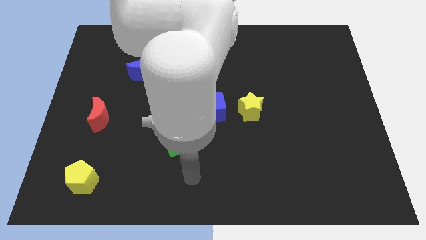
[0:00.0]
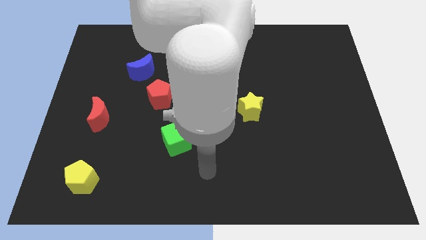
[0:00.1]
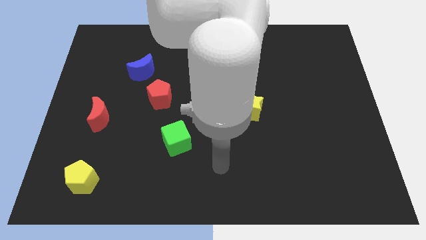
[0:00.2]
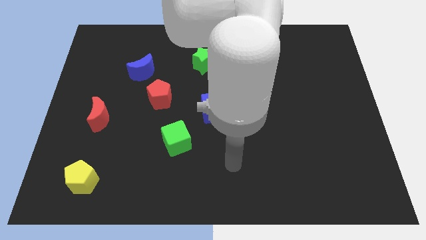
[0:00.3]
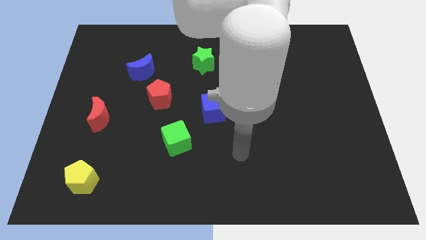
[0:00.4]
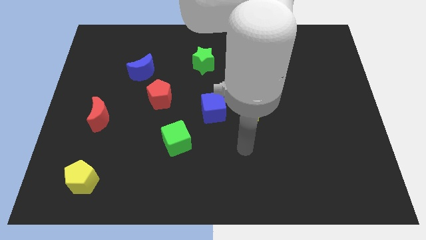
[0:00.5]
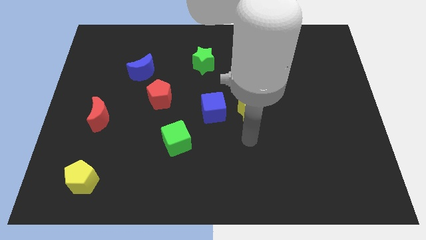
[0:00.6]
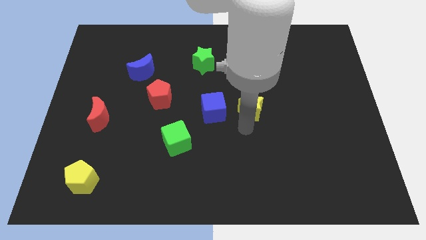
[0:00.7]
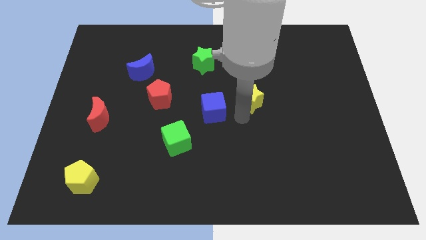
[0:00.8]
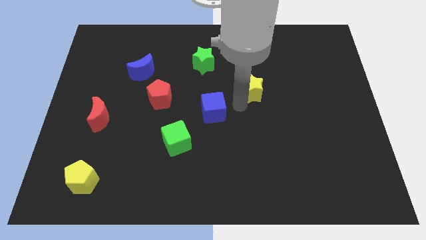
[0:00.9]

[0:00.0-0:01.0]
move the blue cube away from the yellow star

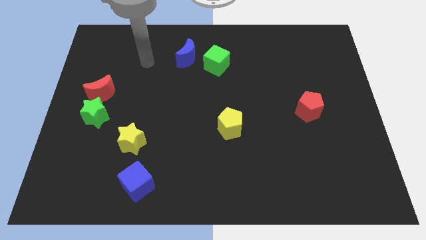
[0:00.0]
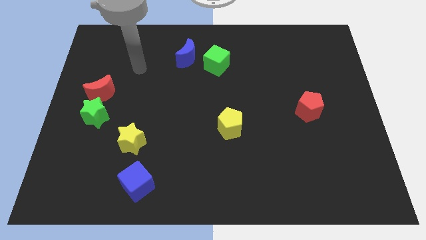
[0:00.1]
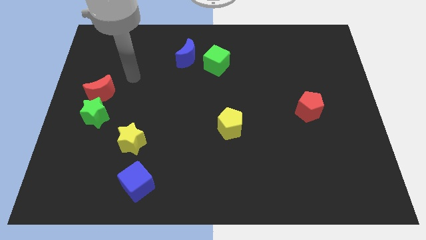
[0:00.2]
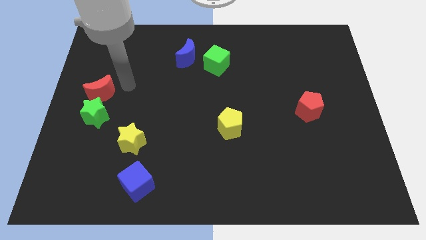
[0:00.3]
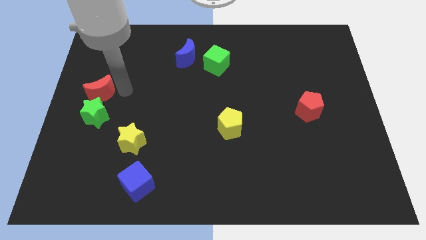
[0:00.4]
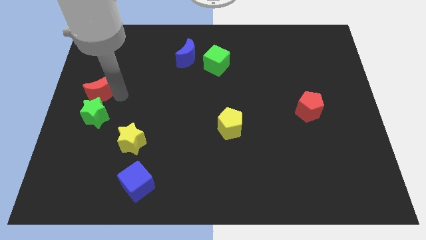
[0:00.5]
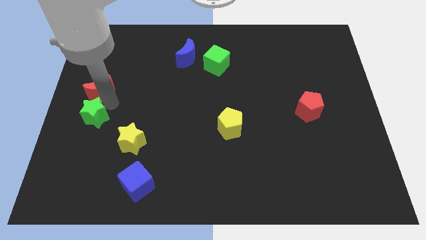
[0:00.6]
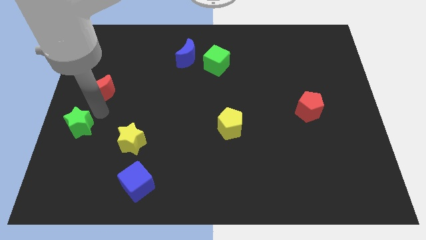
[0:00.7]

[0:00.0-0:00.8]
pull the red moon apart from the green star

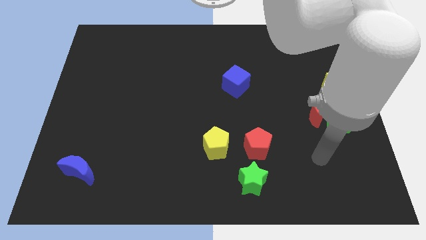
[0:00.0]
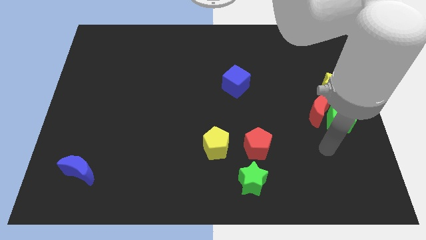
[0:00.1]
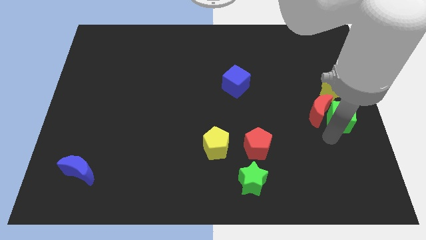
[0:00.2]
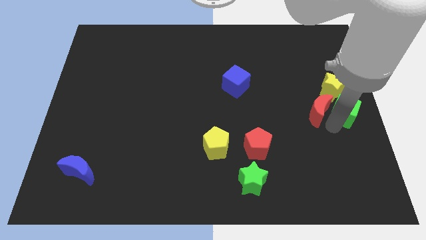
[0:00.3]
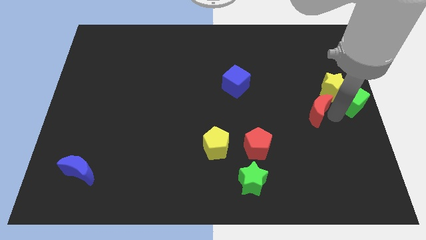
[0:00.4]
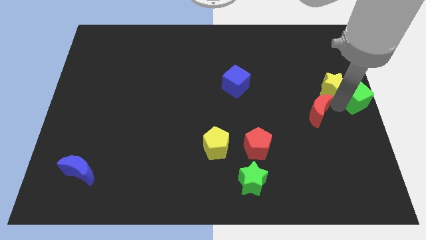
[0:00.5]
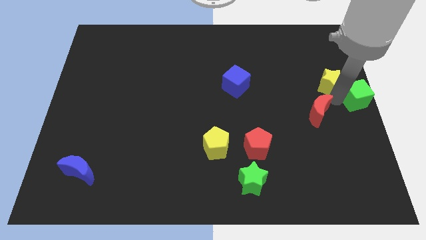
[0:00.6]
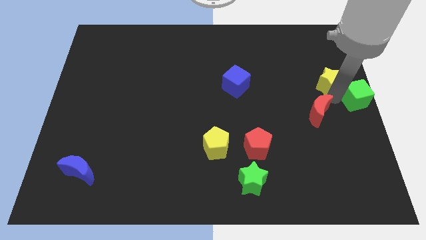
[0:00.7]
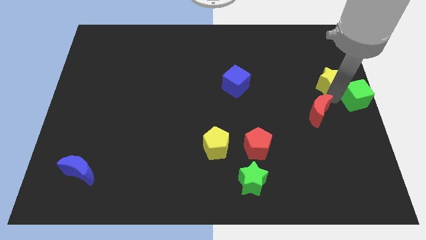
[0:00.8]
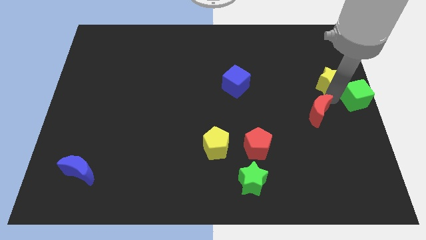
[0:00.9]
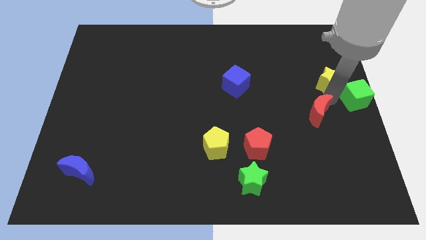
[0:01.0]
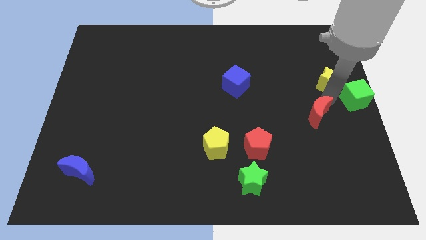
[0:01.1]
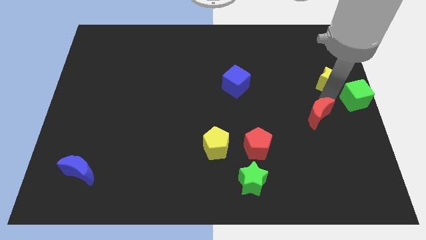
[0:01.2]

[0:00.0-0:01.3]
separate the red moon from the green cube and yellow star

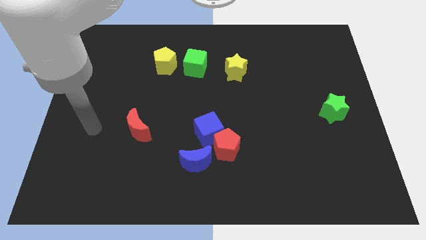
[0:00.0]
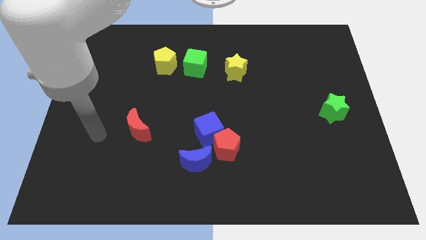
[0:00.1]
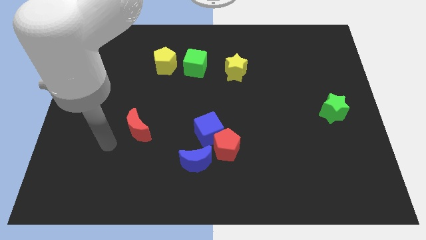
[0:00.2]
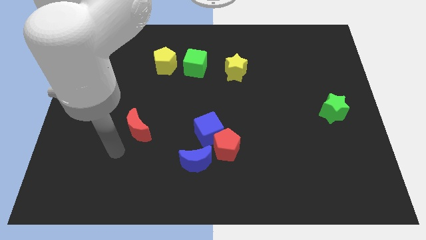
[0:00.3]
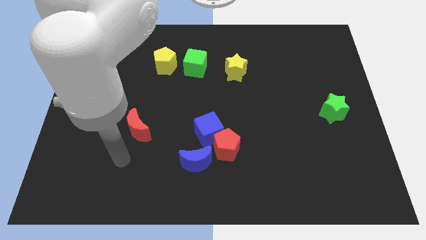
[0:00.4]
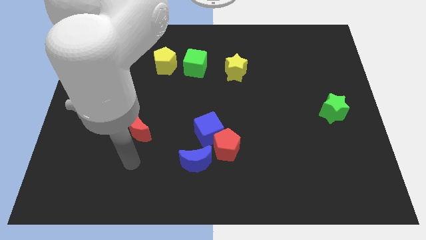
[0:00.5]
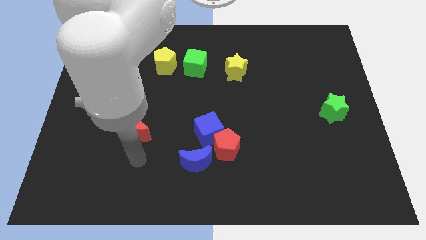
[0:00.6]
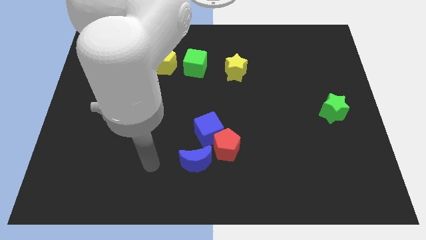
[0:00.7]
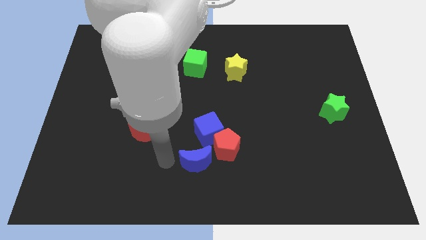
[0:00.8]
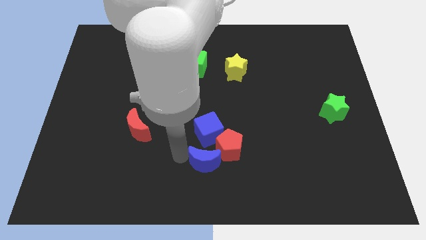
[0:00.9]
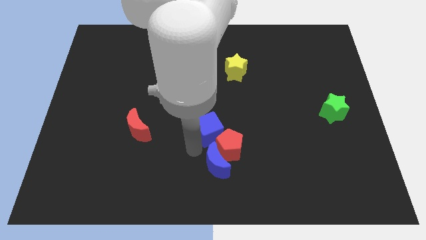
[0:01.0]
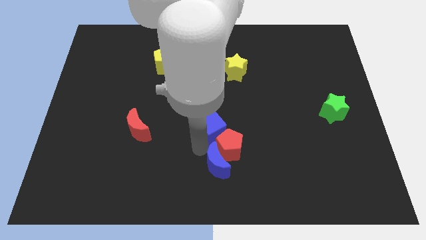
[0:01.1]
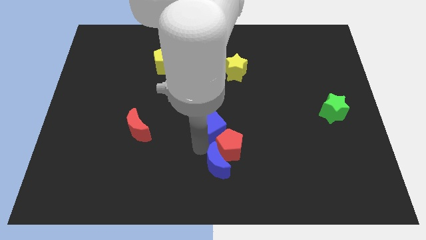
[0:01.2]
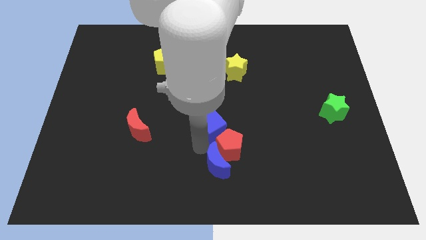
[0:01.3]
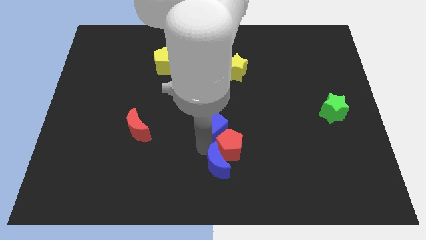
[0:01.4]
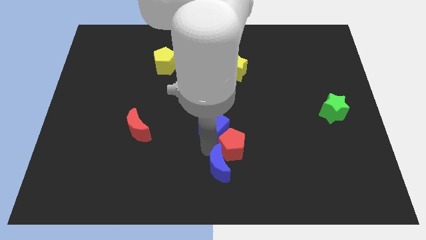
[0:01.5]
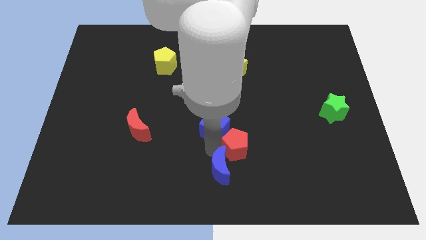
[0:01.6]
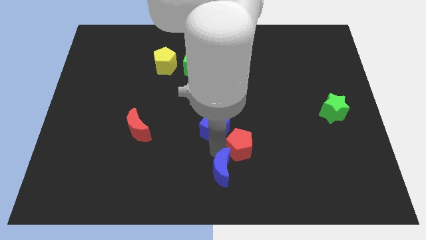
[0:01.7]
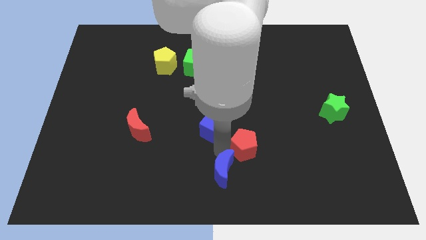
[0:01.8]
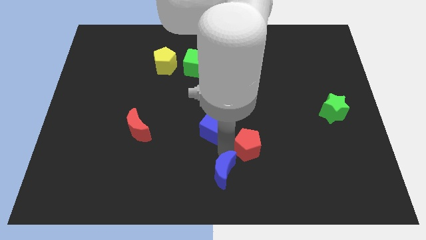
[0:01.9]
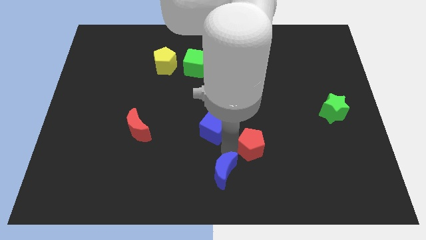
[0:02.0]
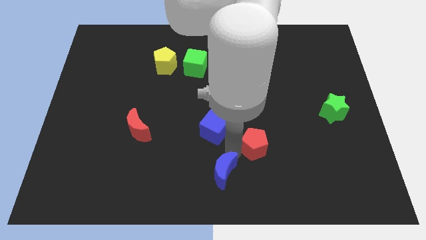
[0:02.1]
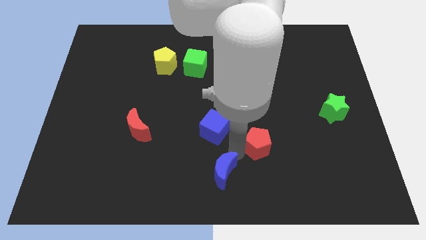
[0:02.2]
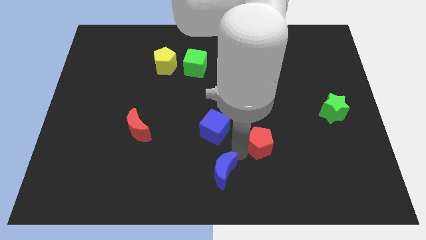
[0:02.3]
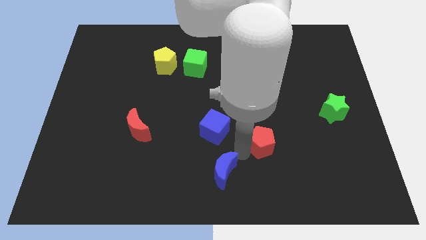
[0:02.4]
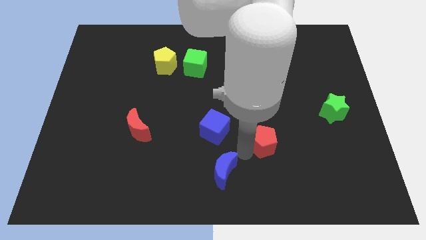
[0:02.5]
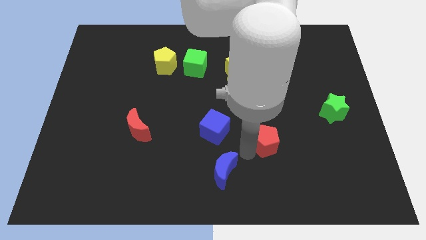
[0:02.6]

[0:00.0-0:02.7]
move the red pentagon away from the blue cube and blue moon

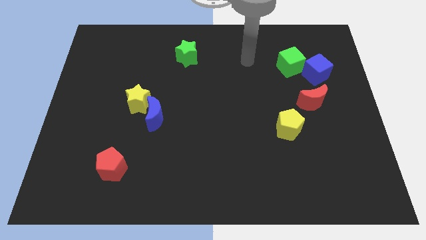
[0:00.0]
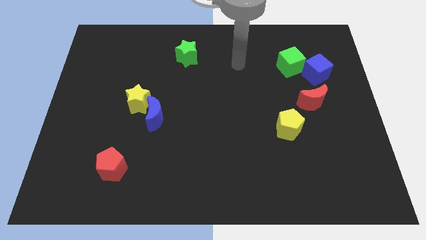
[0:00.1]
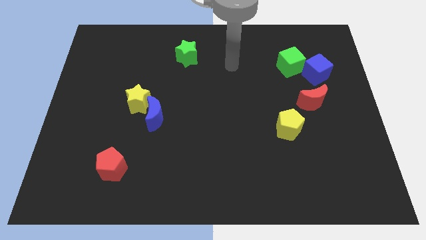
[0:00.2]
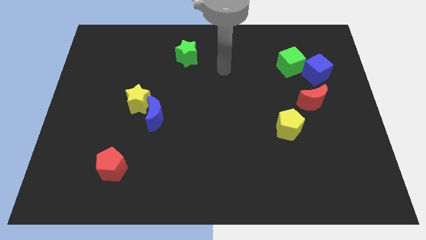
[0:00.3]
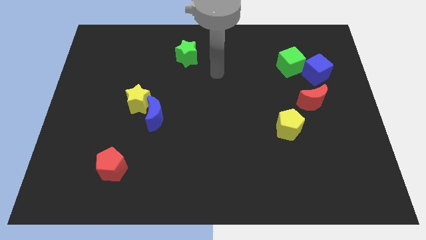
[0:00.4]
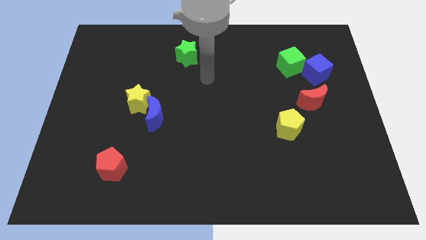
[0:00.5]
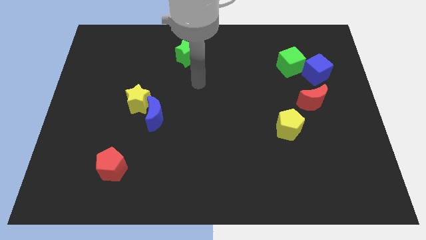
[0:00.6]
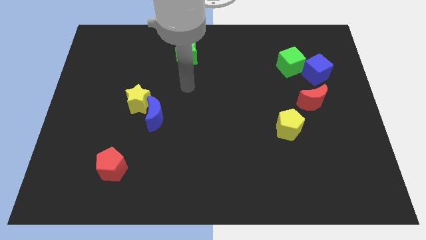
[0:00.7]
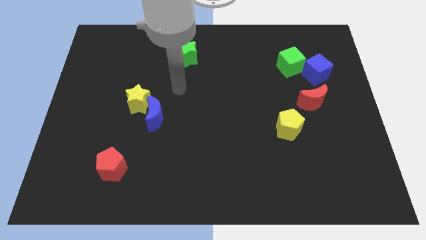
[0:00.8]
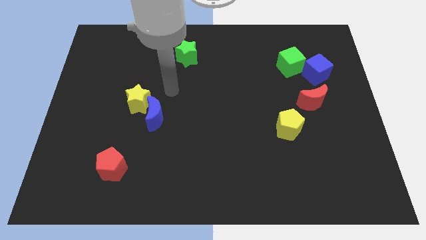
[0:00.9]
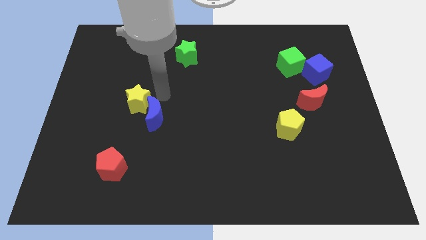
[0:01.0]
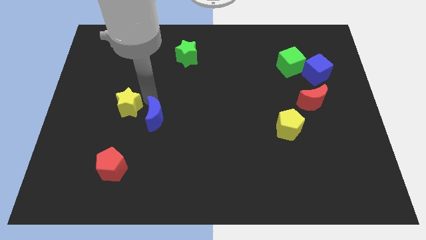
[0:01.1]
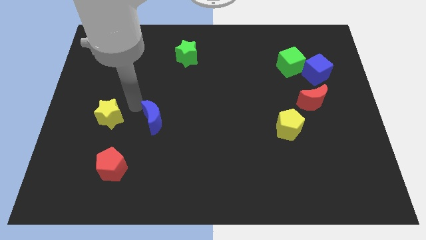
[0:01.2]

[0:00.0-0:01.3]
pull the blue moon apart from the yellow star

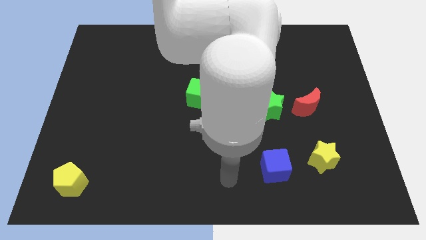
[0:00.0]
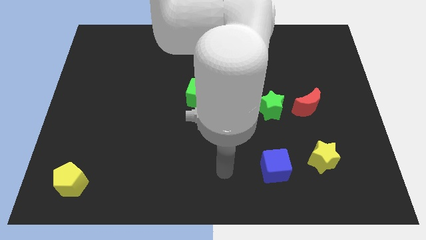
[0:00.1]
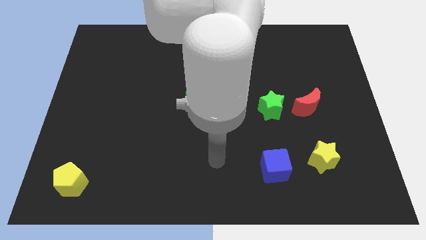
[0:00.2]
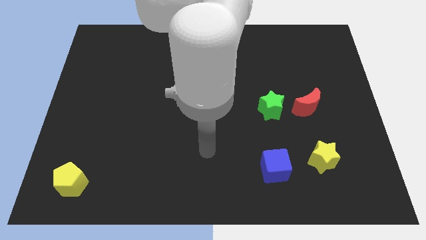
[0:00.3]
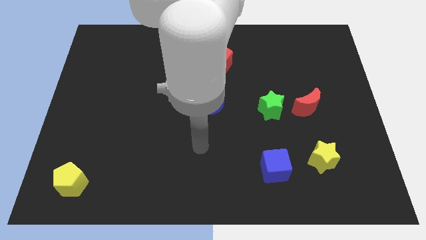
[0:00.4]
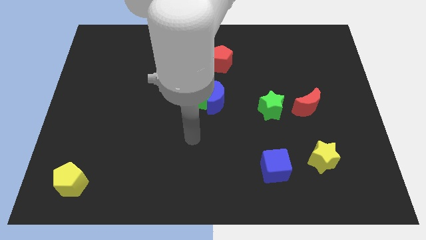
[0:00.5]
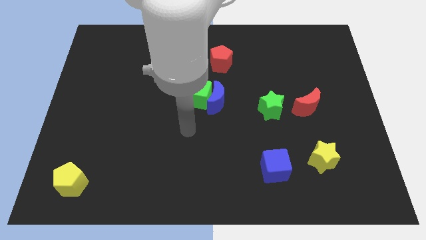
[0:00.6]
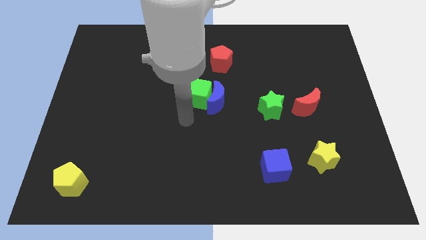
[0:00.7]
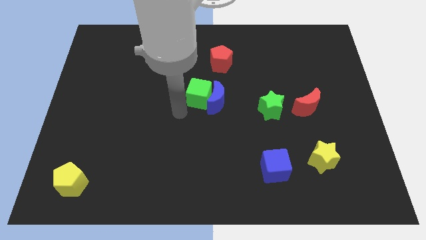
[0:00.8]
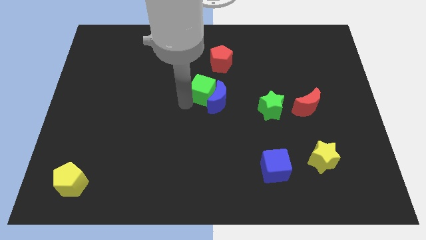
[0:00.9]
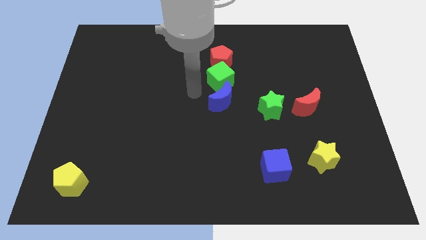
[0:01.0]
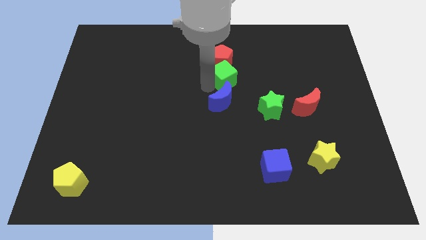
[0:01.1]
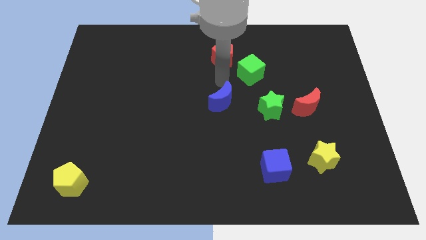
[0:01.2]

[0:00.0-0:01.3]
separate the blue moon from the green cube

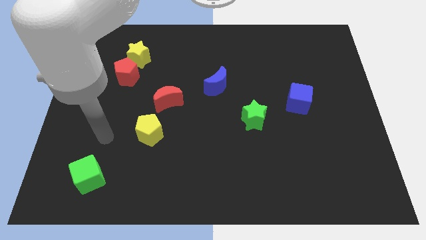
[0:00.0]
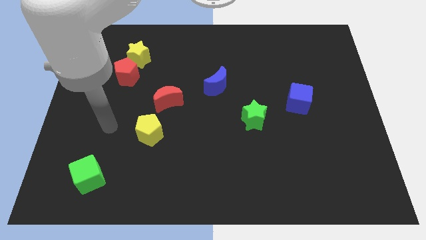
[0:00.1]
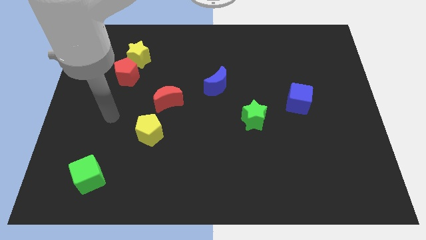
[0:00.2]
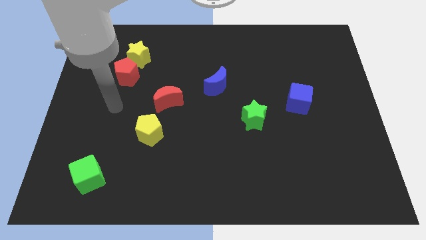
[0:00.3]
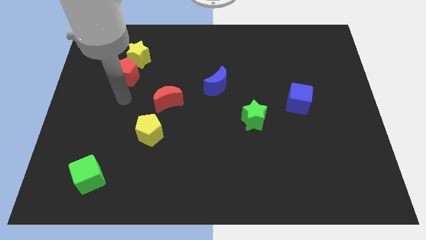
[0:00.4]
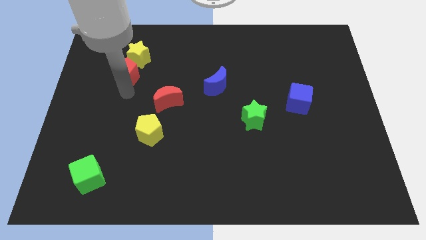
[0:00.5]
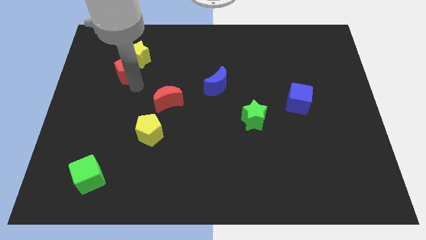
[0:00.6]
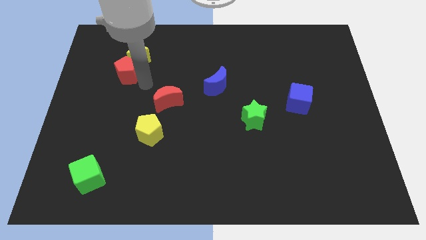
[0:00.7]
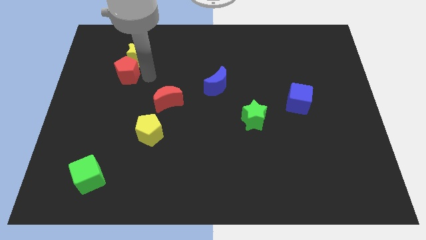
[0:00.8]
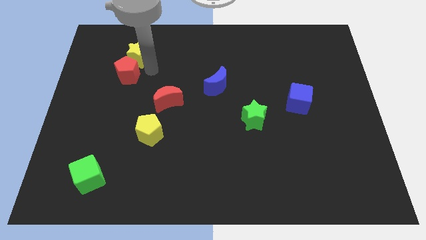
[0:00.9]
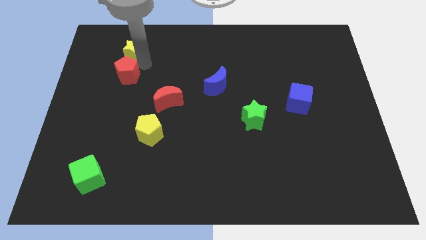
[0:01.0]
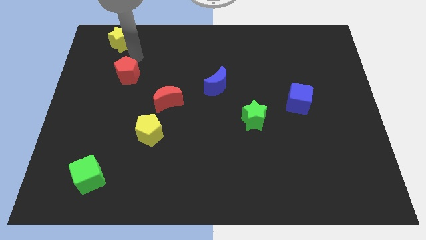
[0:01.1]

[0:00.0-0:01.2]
pull the red pentagon apart from the yellow star
